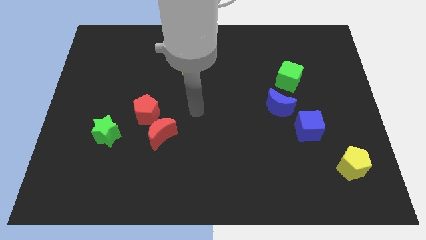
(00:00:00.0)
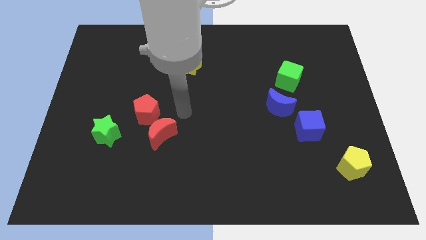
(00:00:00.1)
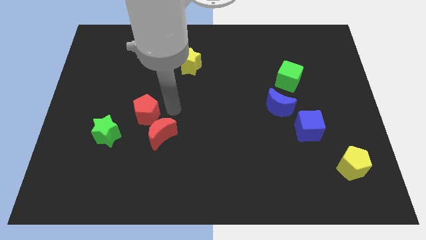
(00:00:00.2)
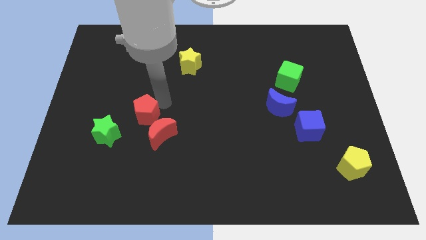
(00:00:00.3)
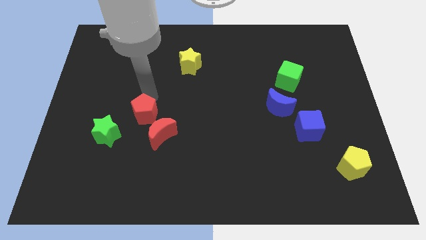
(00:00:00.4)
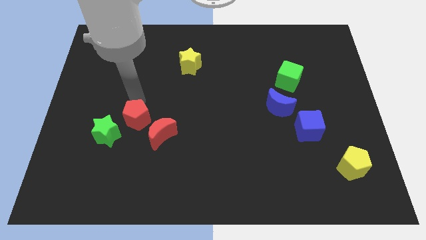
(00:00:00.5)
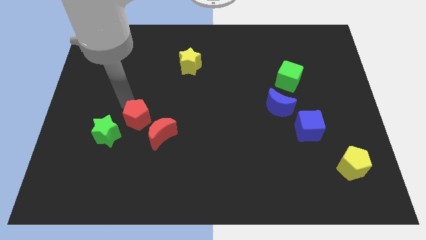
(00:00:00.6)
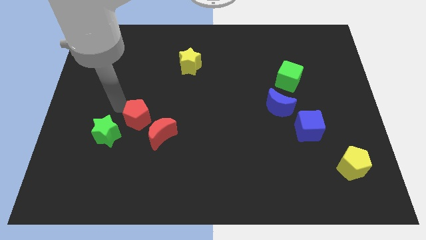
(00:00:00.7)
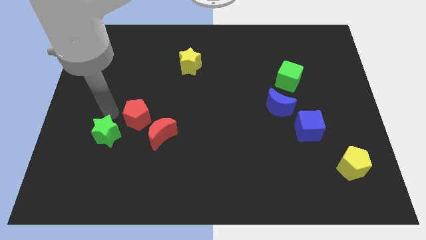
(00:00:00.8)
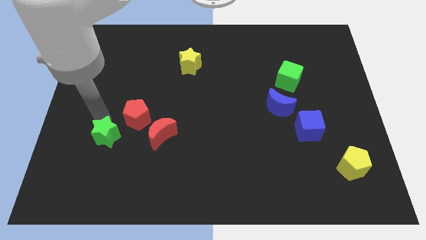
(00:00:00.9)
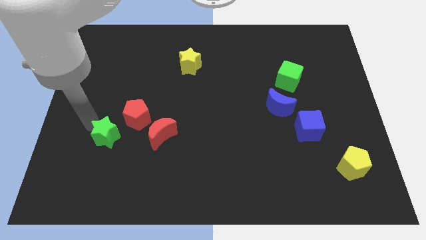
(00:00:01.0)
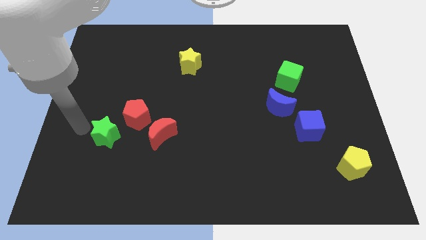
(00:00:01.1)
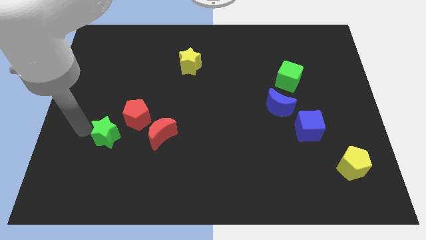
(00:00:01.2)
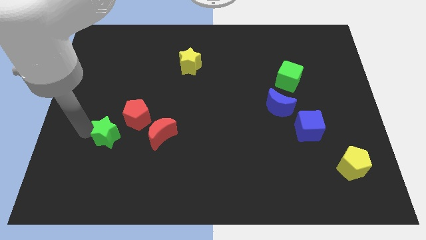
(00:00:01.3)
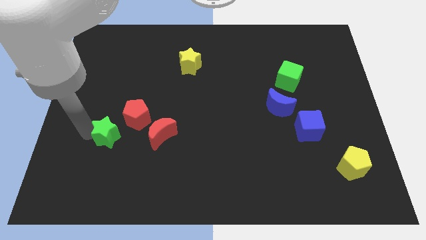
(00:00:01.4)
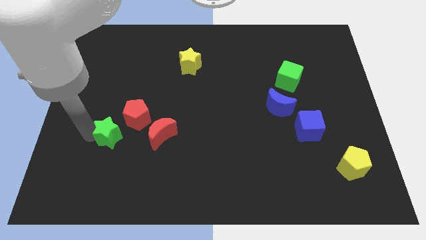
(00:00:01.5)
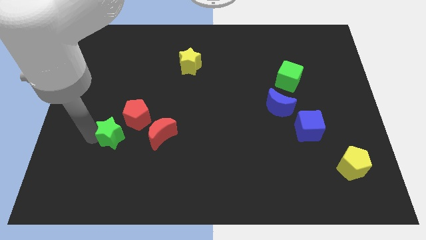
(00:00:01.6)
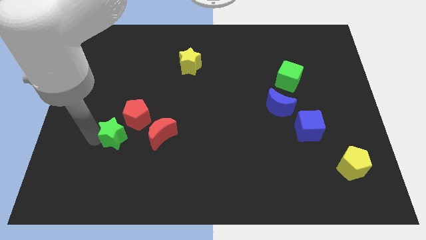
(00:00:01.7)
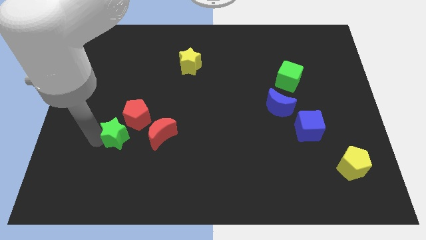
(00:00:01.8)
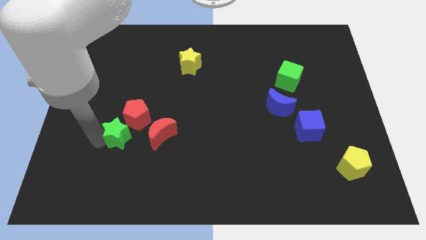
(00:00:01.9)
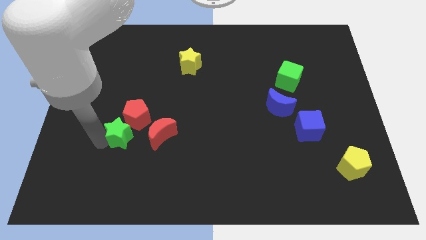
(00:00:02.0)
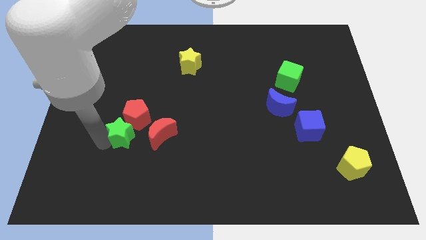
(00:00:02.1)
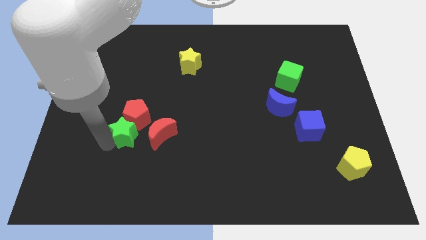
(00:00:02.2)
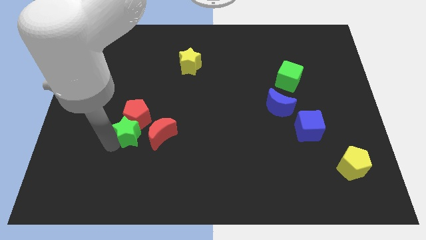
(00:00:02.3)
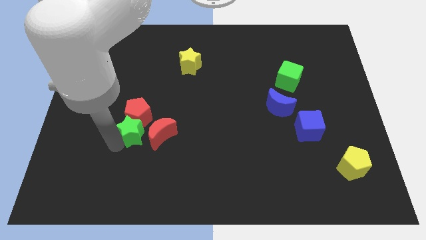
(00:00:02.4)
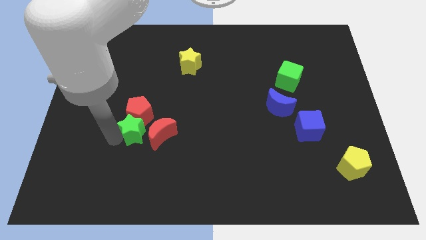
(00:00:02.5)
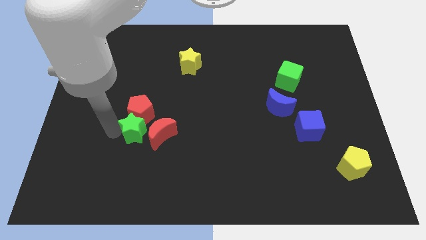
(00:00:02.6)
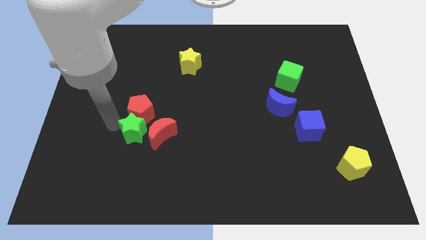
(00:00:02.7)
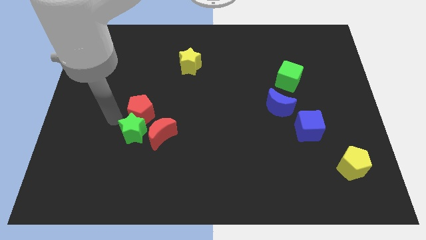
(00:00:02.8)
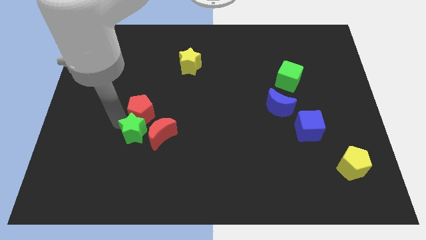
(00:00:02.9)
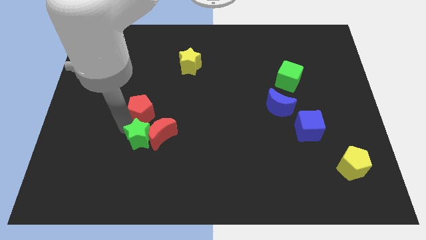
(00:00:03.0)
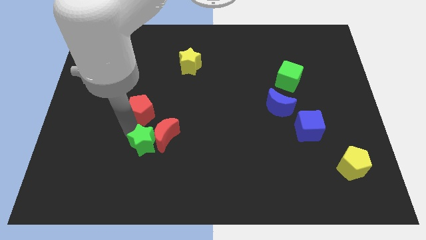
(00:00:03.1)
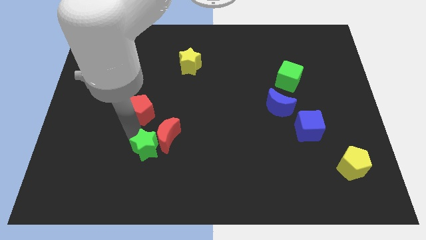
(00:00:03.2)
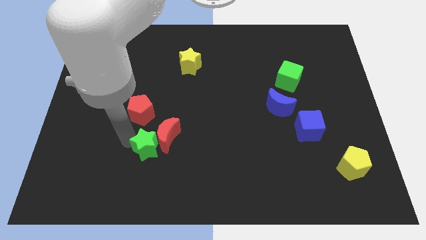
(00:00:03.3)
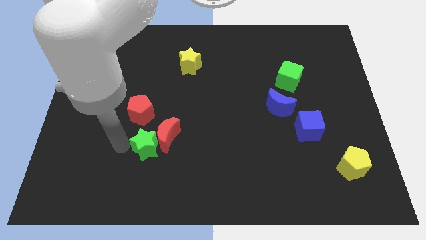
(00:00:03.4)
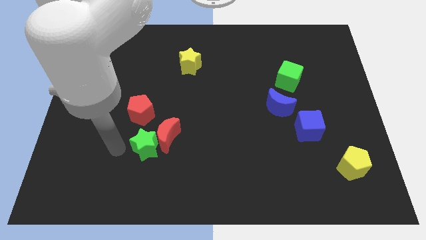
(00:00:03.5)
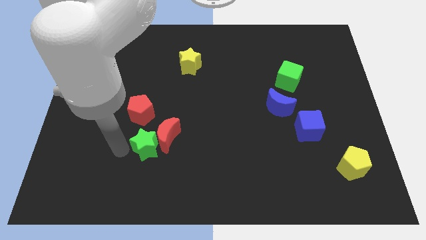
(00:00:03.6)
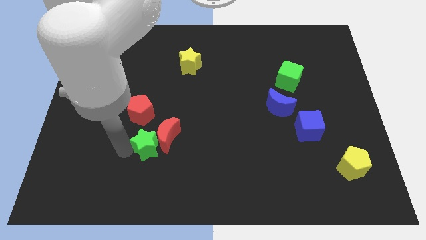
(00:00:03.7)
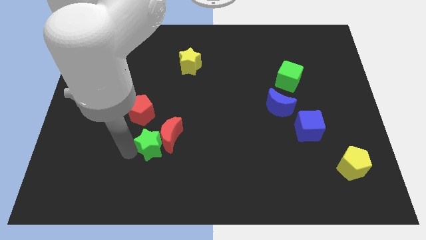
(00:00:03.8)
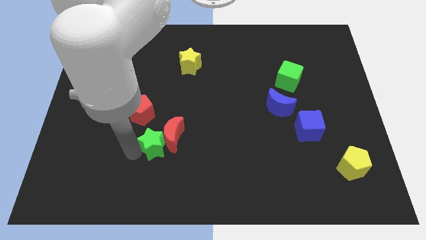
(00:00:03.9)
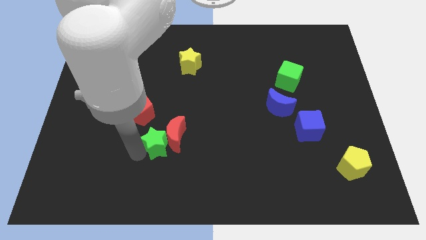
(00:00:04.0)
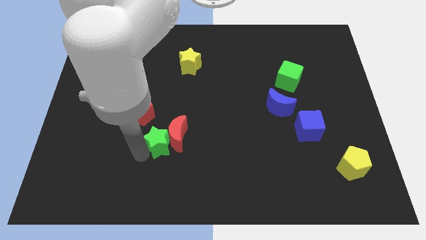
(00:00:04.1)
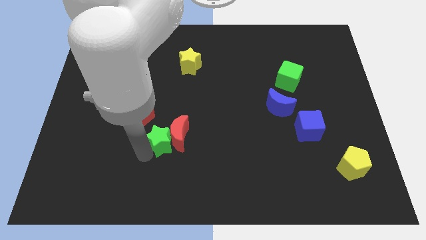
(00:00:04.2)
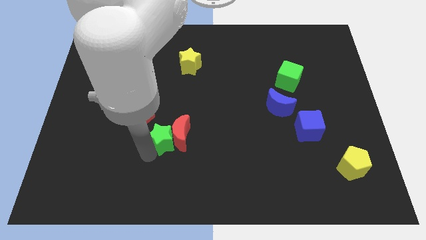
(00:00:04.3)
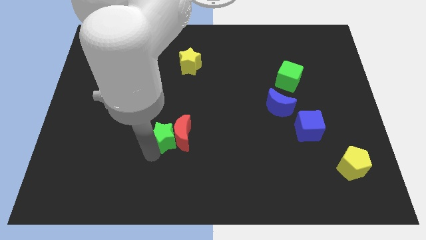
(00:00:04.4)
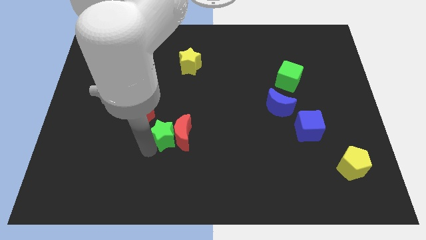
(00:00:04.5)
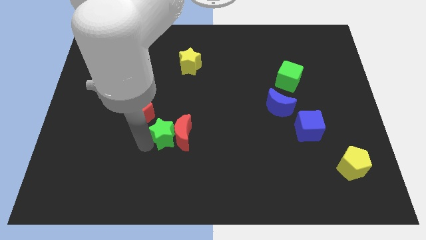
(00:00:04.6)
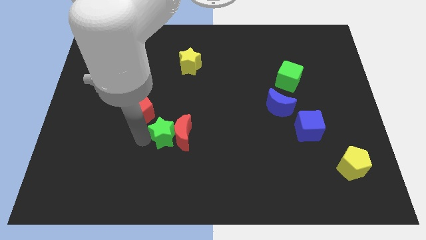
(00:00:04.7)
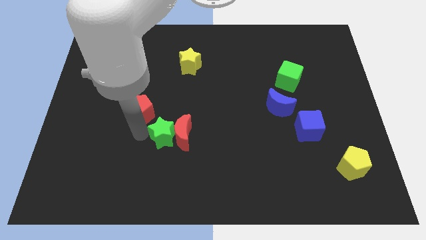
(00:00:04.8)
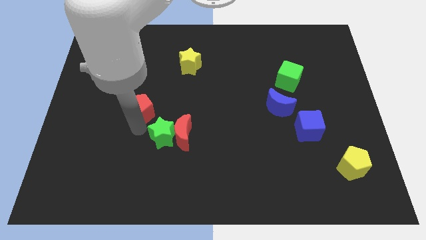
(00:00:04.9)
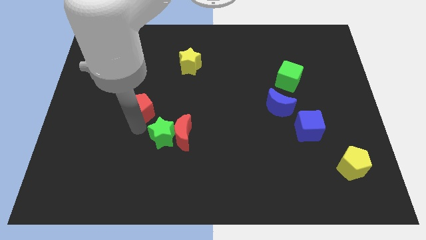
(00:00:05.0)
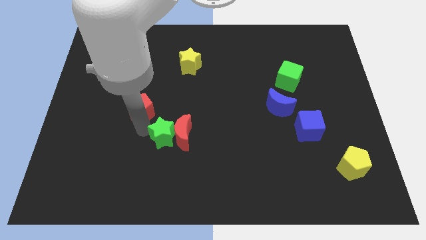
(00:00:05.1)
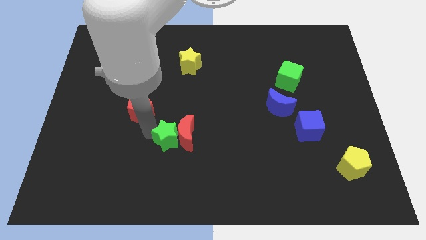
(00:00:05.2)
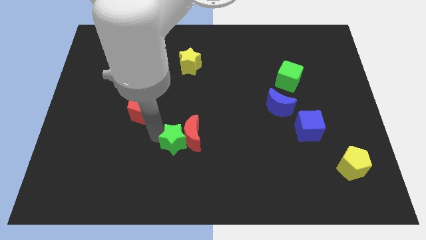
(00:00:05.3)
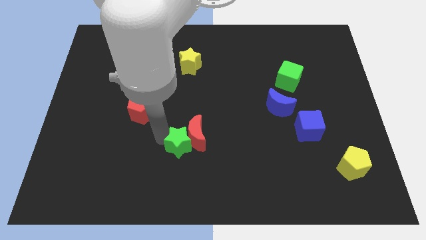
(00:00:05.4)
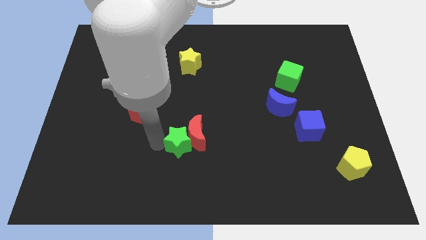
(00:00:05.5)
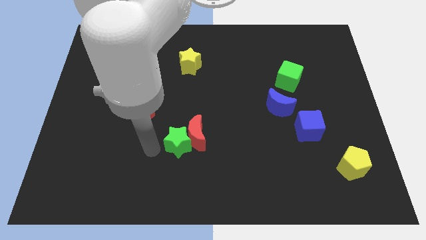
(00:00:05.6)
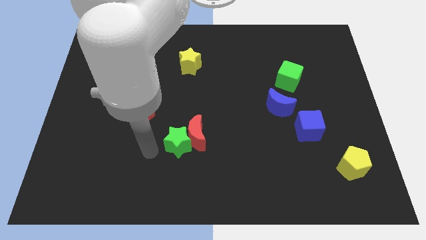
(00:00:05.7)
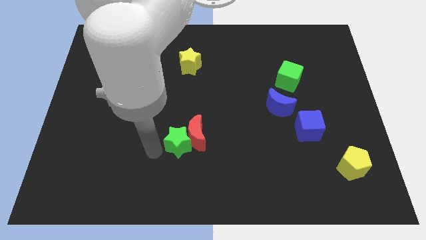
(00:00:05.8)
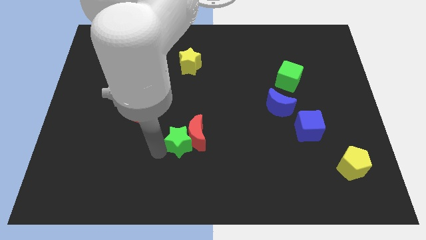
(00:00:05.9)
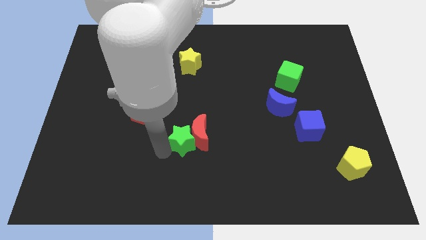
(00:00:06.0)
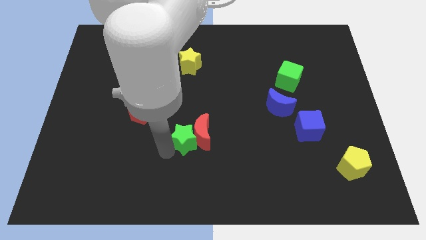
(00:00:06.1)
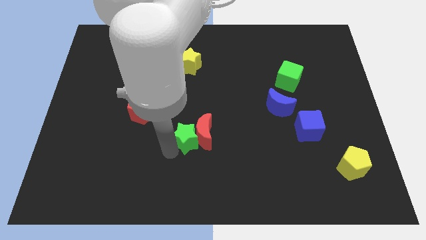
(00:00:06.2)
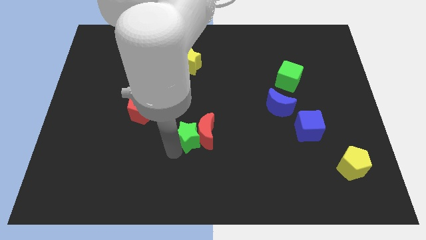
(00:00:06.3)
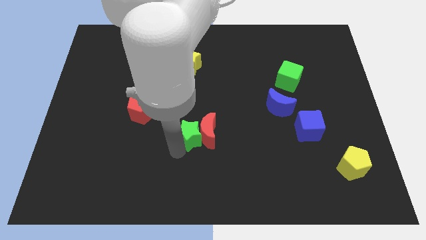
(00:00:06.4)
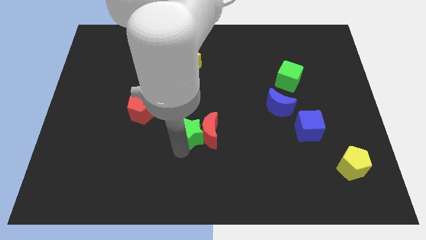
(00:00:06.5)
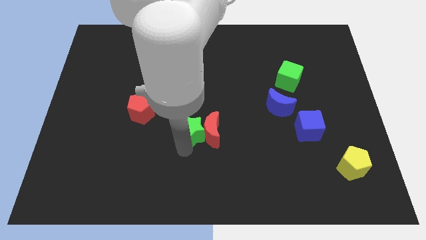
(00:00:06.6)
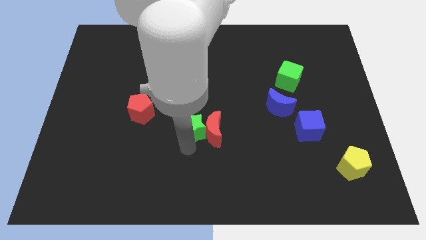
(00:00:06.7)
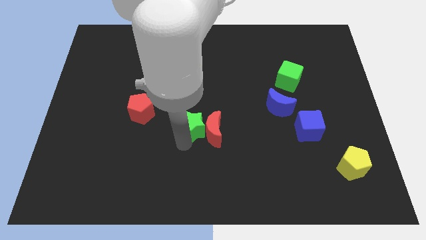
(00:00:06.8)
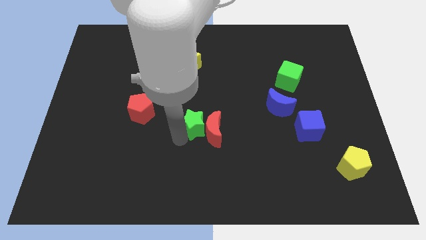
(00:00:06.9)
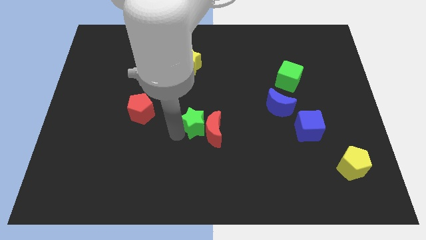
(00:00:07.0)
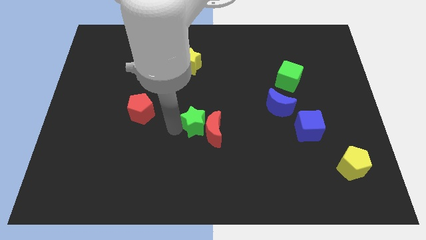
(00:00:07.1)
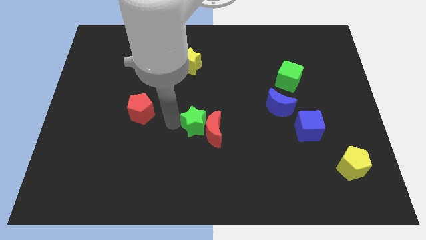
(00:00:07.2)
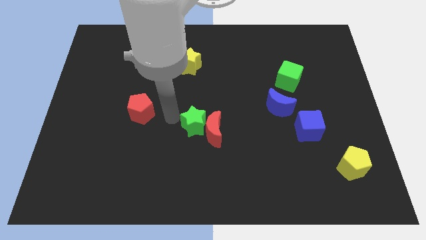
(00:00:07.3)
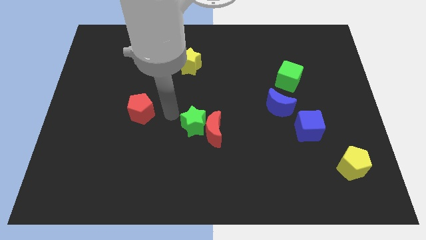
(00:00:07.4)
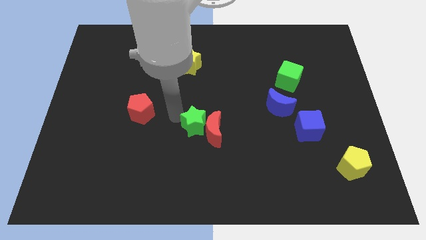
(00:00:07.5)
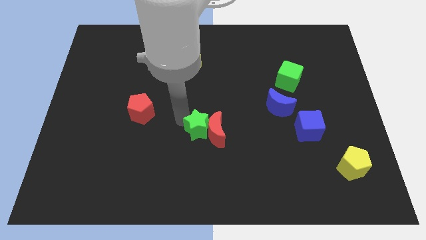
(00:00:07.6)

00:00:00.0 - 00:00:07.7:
slide the green star to the right

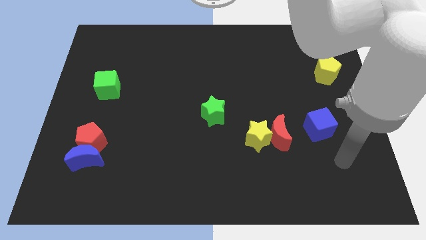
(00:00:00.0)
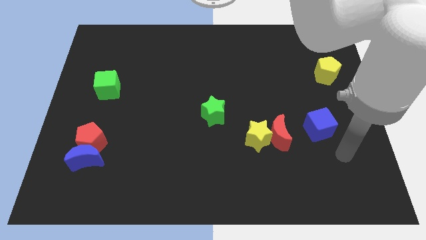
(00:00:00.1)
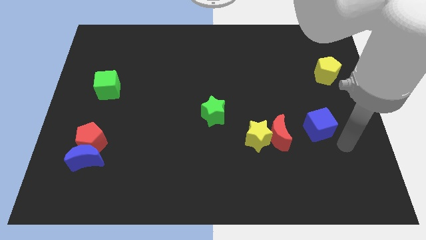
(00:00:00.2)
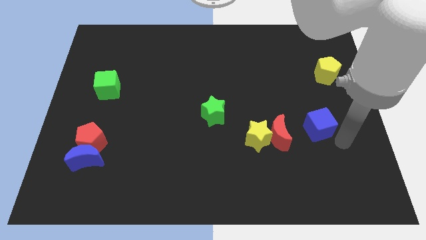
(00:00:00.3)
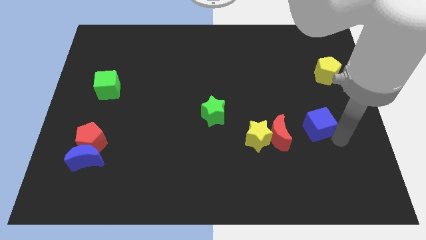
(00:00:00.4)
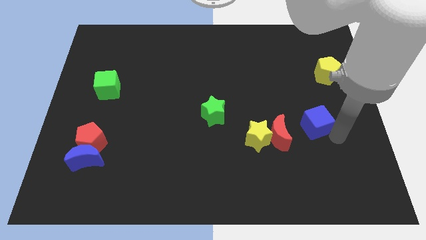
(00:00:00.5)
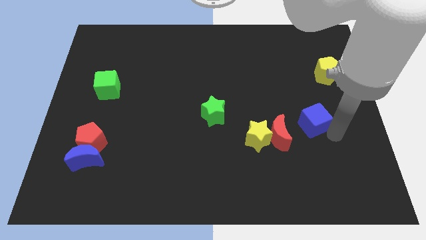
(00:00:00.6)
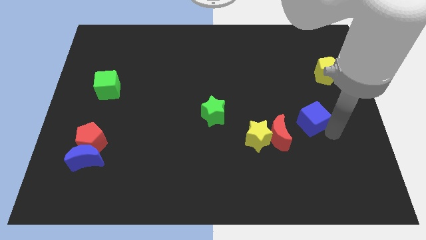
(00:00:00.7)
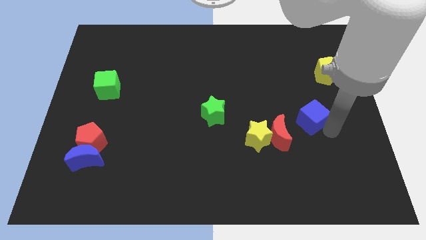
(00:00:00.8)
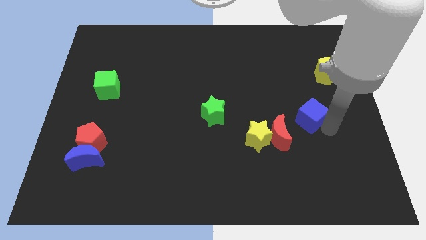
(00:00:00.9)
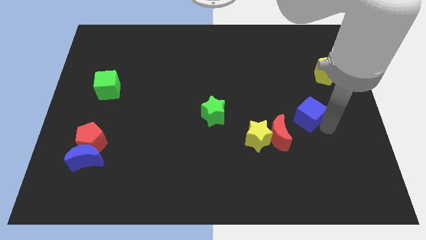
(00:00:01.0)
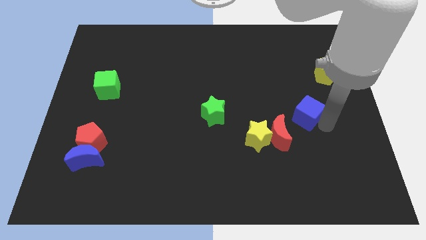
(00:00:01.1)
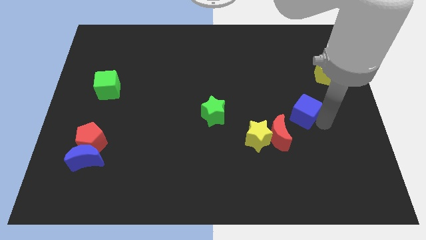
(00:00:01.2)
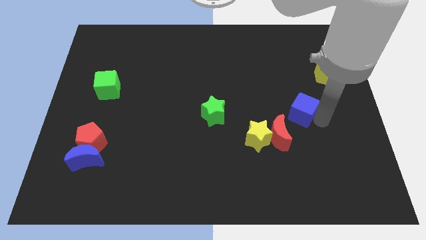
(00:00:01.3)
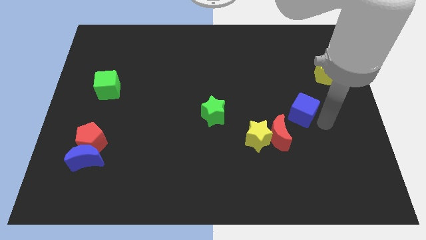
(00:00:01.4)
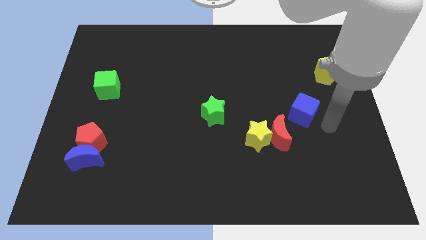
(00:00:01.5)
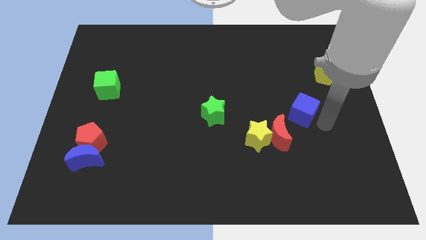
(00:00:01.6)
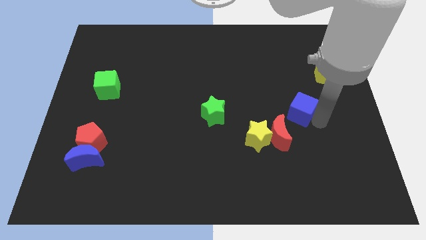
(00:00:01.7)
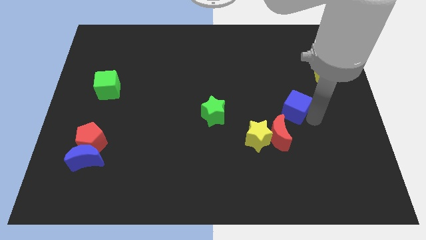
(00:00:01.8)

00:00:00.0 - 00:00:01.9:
move the blue cube a bit up and to the left
